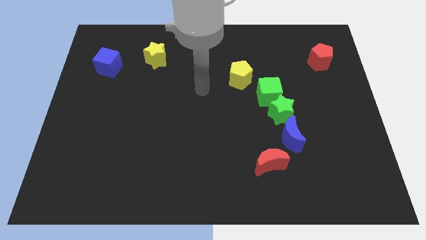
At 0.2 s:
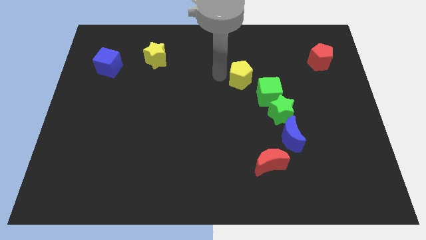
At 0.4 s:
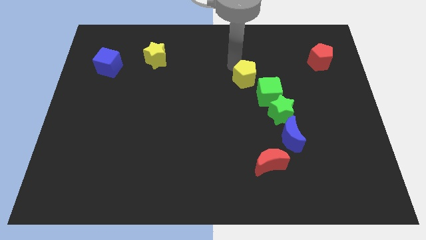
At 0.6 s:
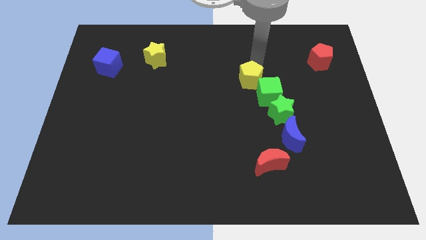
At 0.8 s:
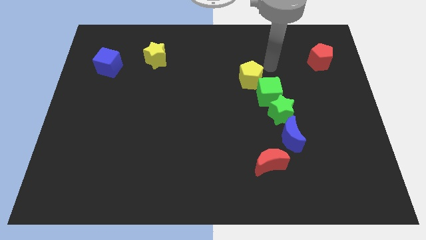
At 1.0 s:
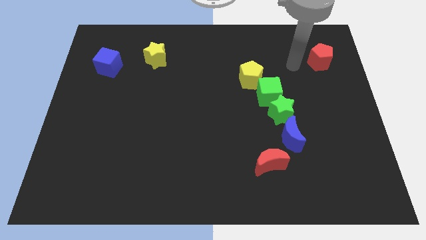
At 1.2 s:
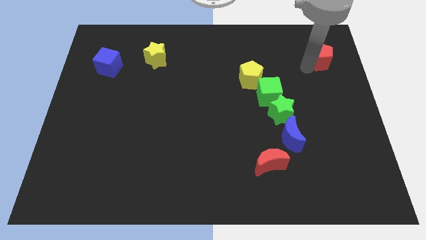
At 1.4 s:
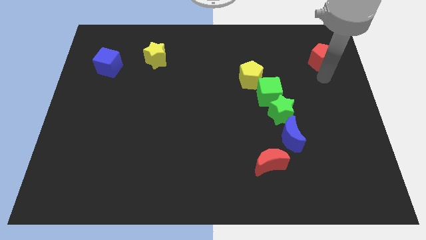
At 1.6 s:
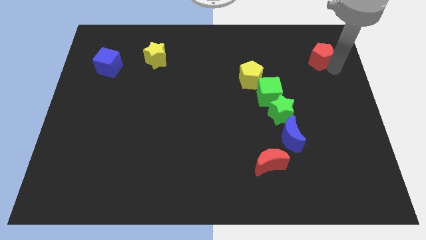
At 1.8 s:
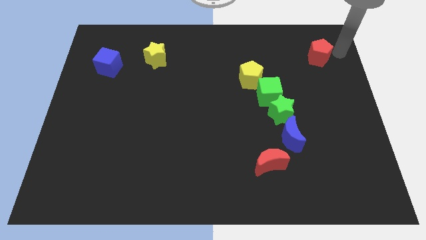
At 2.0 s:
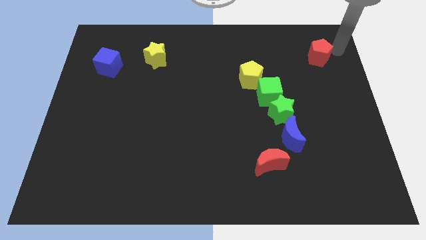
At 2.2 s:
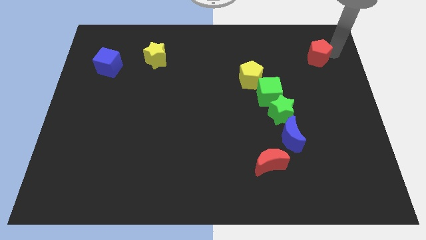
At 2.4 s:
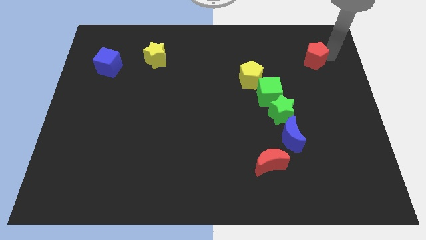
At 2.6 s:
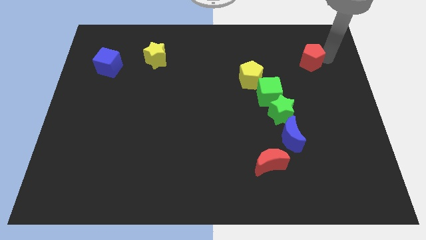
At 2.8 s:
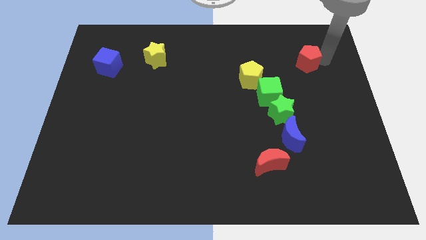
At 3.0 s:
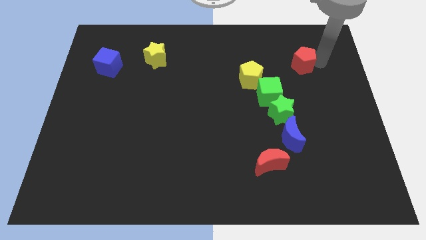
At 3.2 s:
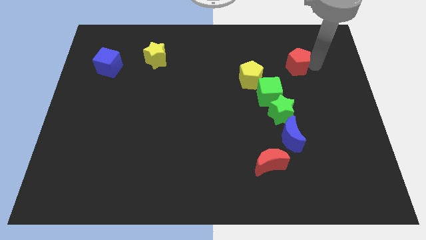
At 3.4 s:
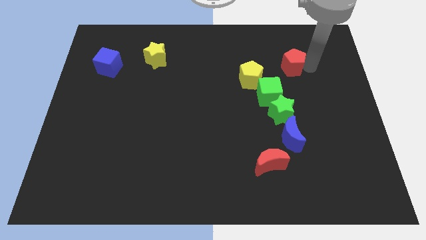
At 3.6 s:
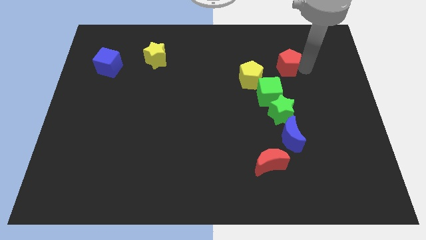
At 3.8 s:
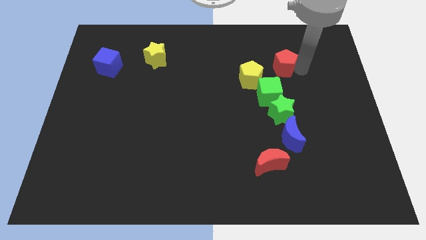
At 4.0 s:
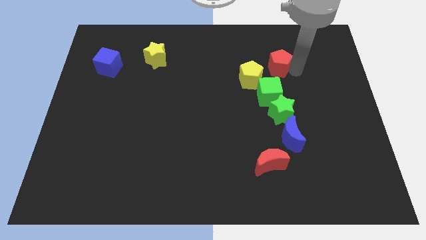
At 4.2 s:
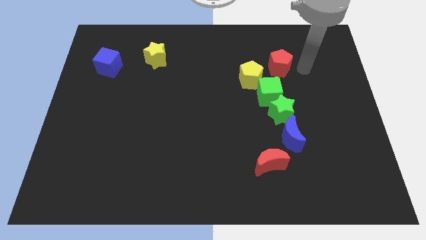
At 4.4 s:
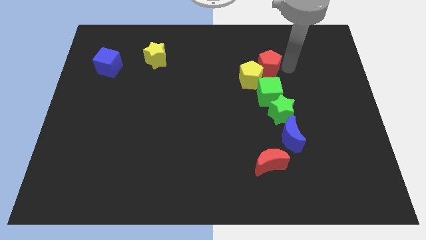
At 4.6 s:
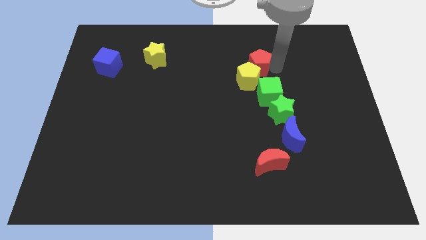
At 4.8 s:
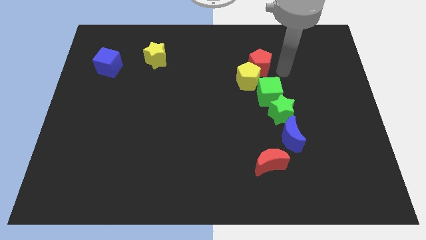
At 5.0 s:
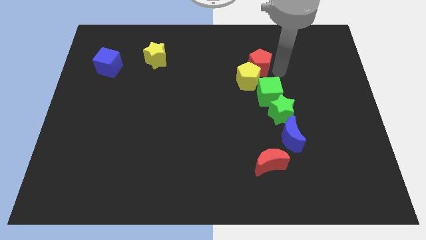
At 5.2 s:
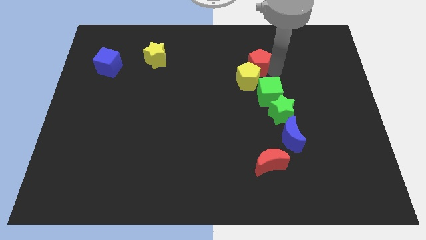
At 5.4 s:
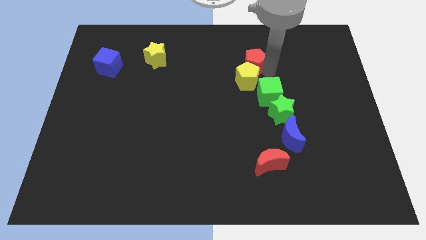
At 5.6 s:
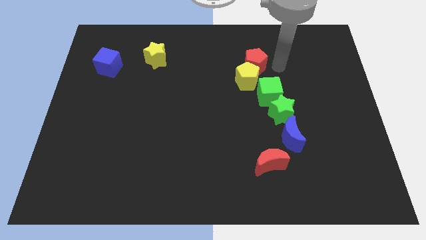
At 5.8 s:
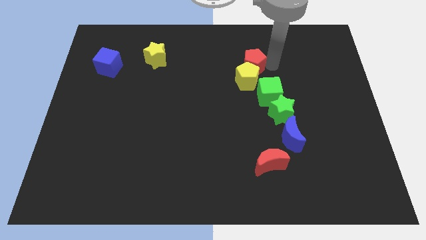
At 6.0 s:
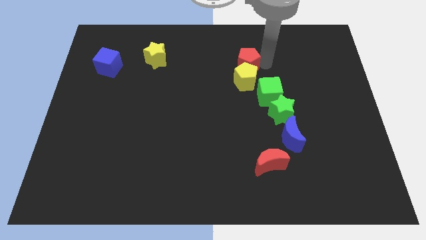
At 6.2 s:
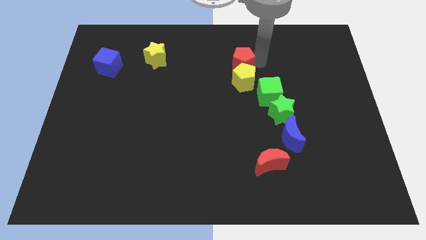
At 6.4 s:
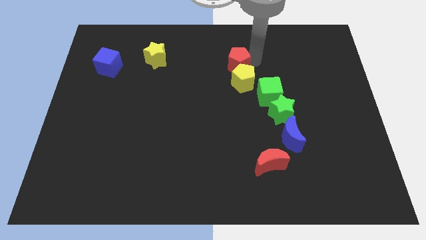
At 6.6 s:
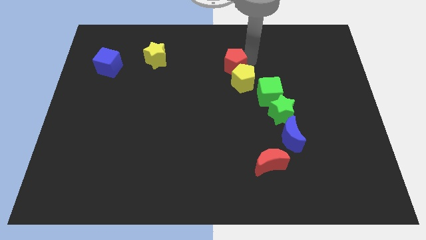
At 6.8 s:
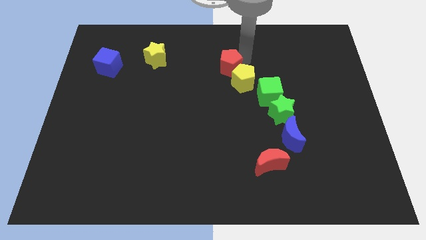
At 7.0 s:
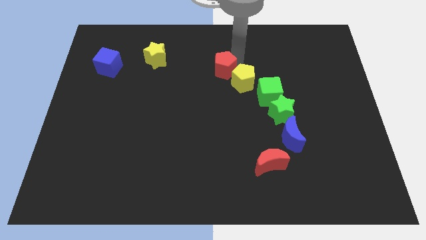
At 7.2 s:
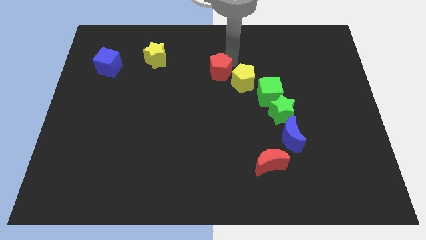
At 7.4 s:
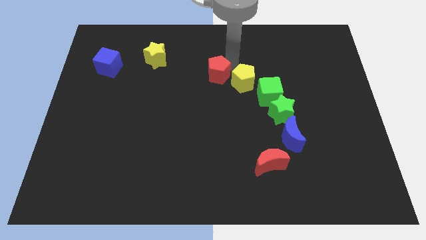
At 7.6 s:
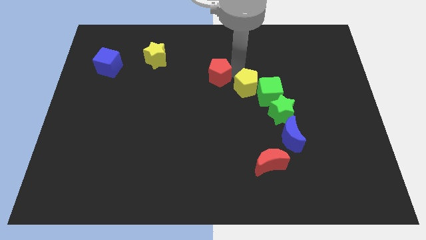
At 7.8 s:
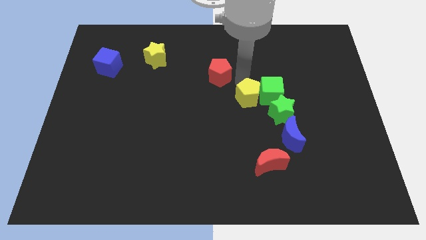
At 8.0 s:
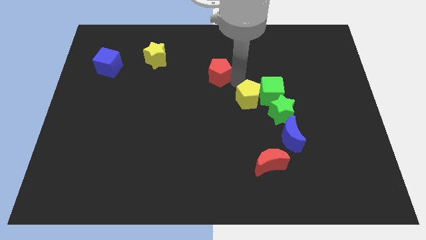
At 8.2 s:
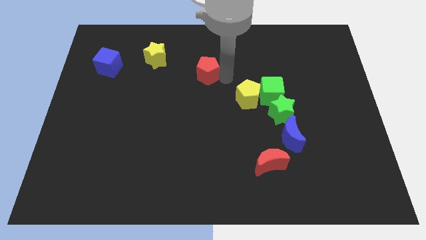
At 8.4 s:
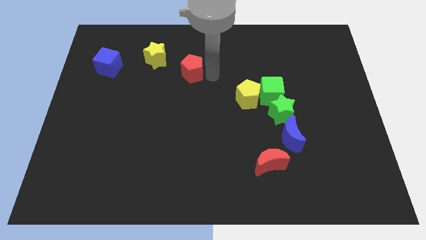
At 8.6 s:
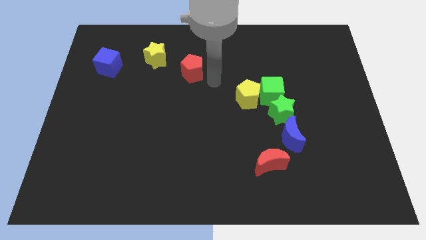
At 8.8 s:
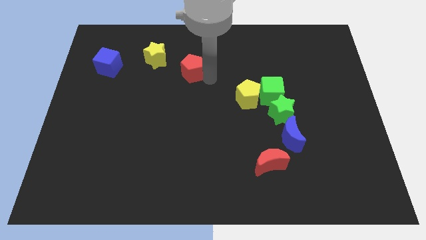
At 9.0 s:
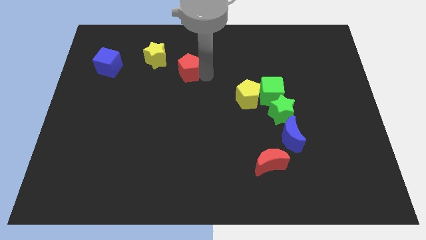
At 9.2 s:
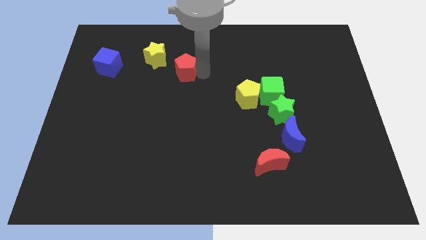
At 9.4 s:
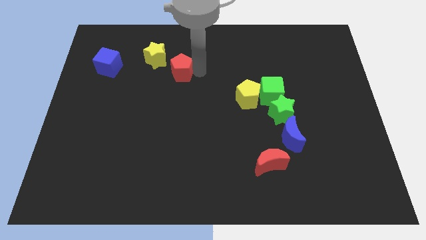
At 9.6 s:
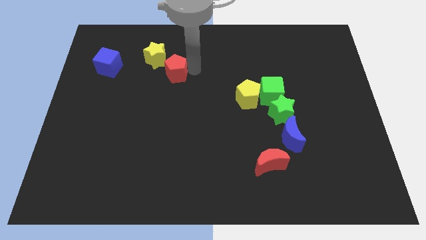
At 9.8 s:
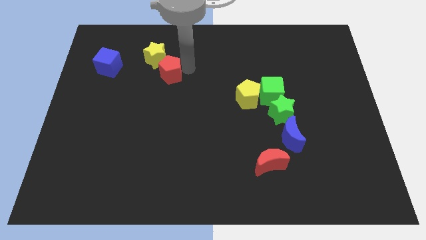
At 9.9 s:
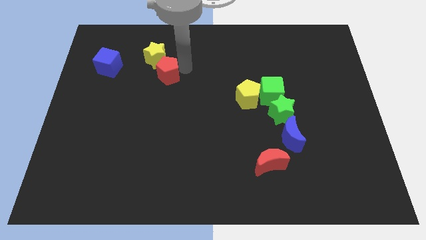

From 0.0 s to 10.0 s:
slide the red pentagon towards the yellow star

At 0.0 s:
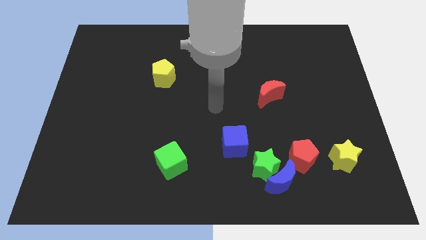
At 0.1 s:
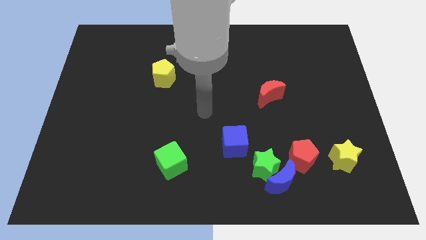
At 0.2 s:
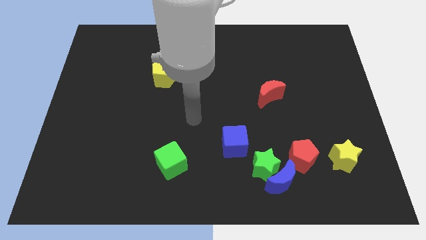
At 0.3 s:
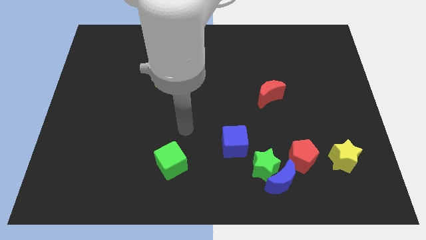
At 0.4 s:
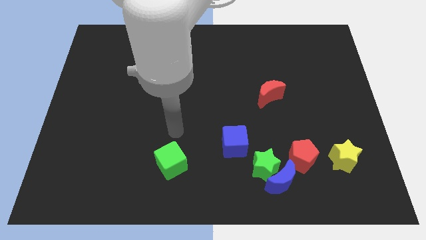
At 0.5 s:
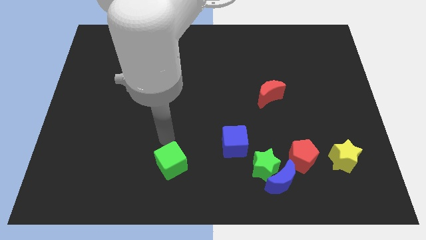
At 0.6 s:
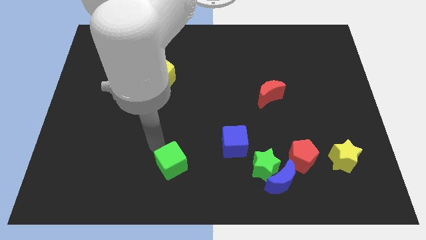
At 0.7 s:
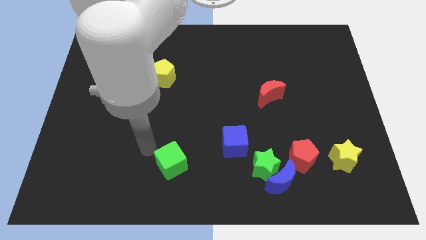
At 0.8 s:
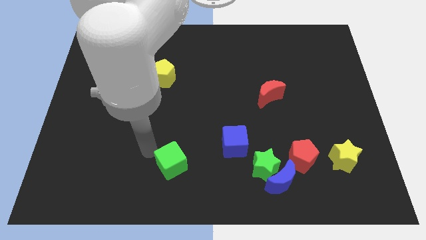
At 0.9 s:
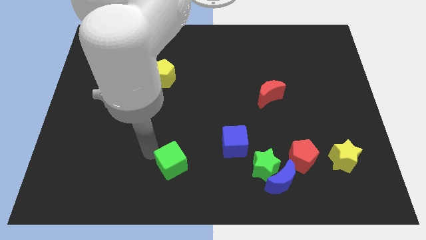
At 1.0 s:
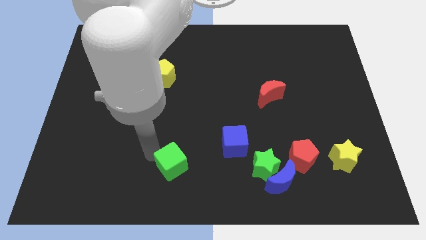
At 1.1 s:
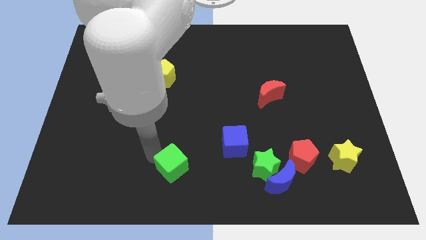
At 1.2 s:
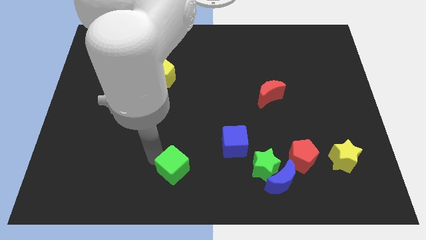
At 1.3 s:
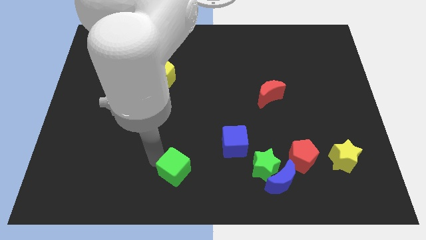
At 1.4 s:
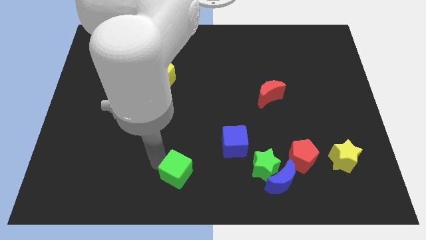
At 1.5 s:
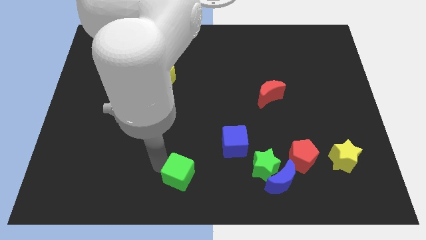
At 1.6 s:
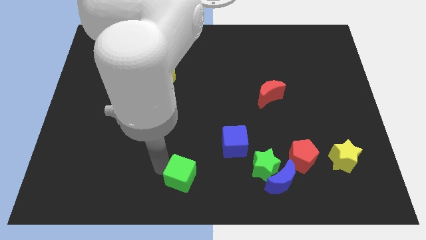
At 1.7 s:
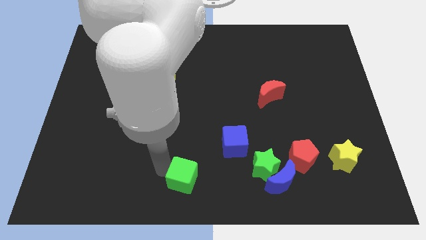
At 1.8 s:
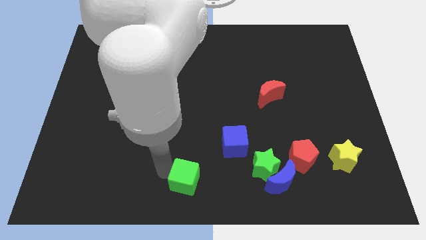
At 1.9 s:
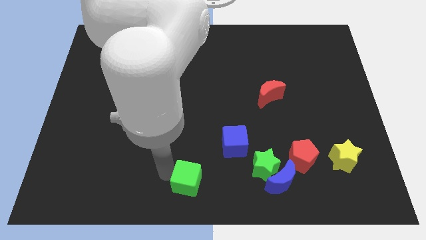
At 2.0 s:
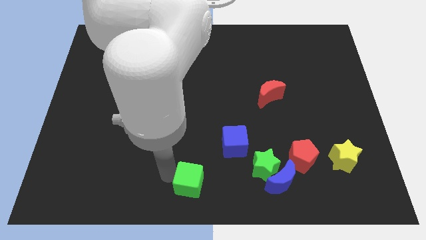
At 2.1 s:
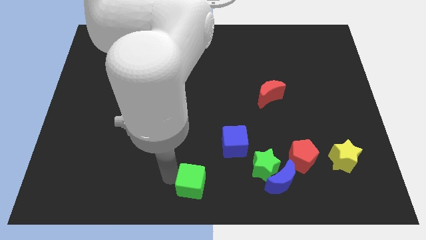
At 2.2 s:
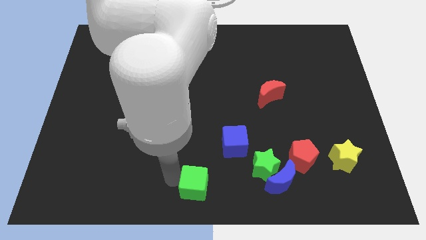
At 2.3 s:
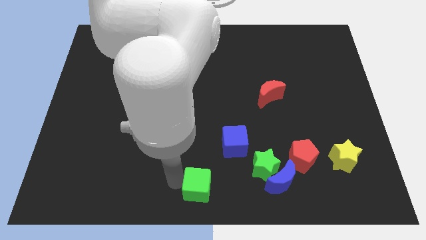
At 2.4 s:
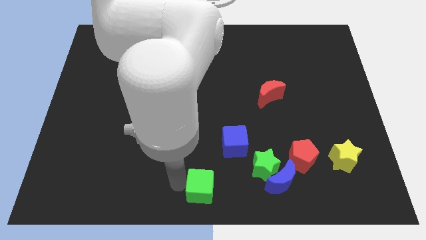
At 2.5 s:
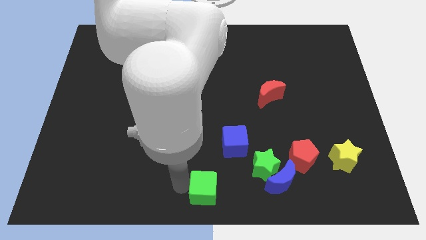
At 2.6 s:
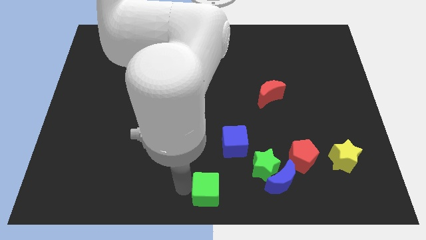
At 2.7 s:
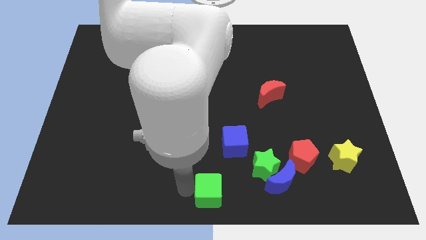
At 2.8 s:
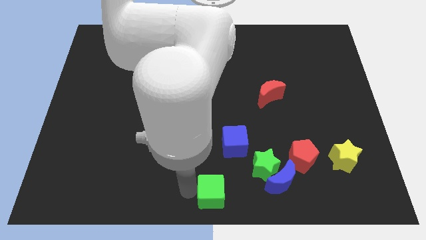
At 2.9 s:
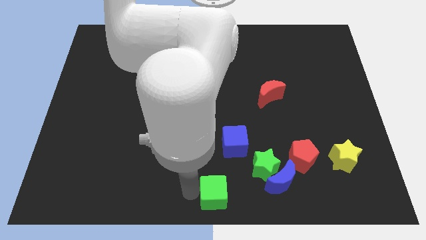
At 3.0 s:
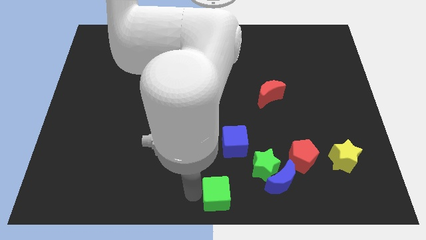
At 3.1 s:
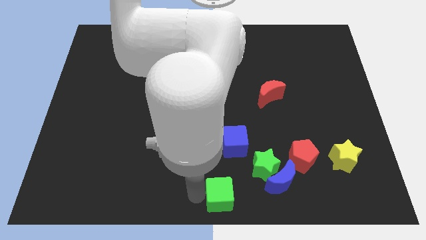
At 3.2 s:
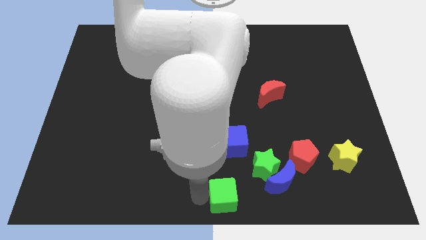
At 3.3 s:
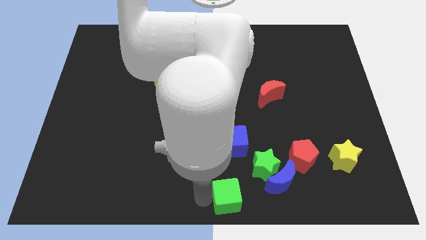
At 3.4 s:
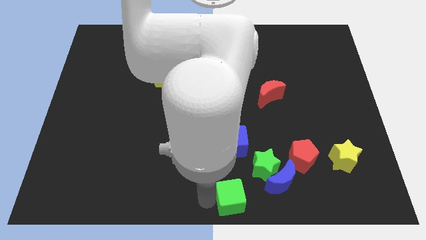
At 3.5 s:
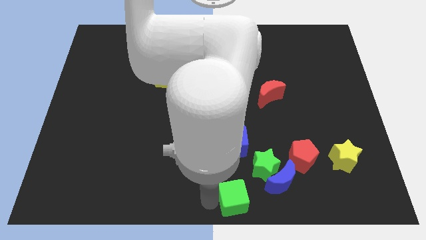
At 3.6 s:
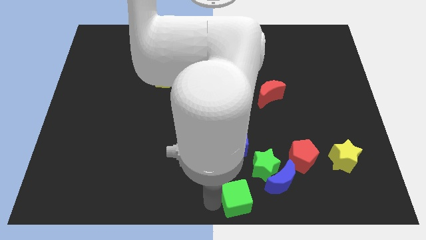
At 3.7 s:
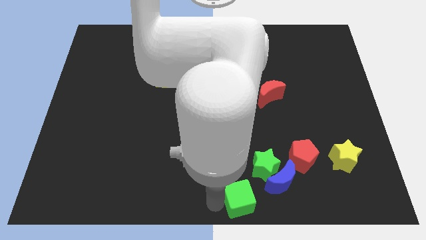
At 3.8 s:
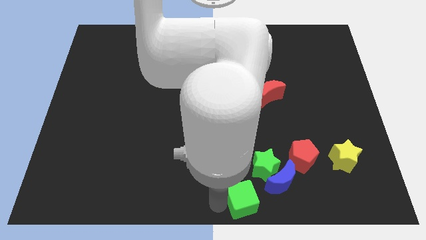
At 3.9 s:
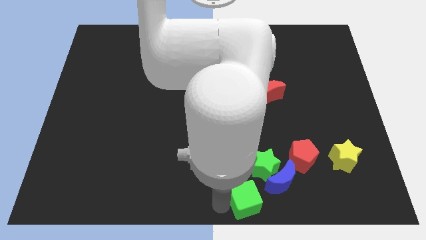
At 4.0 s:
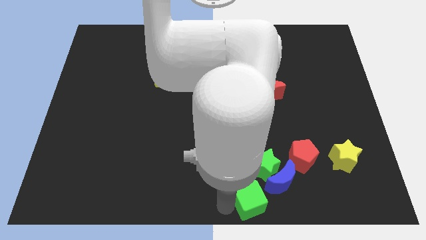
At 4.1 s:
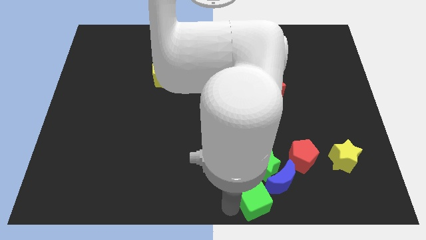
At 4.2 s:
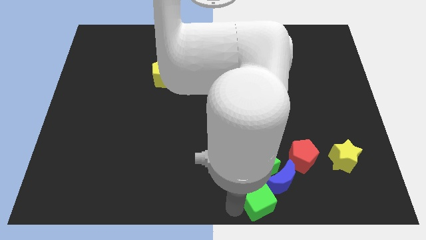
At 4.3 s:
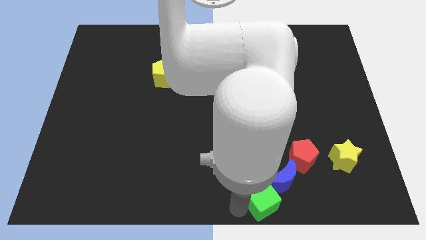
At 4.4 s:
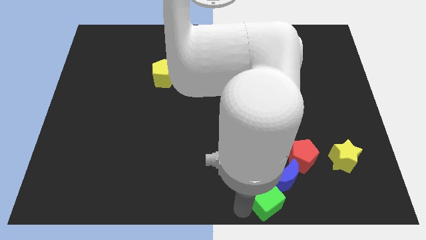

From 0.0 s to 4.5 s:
put the green cube towards the blue moon
